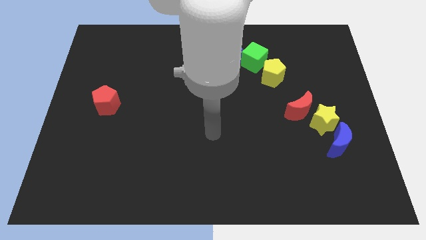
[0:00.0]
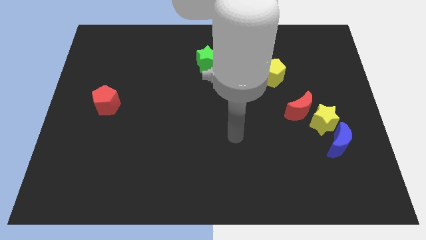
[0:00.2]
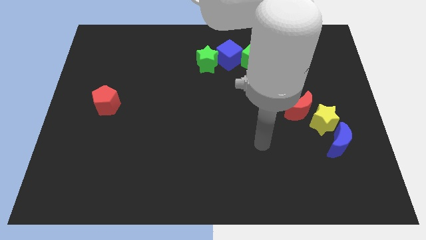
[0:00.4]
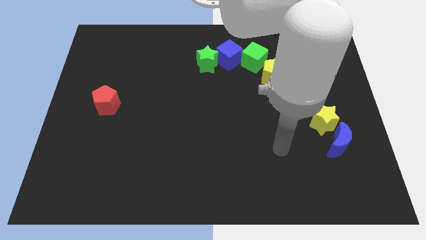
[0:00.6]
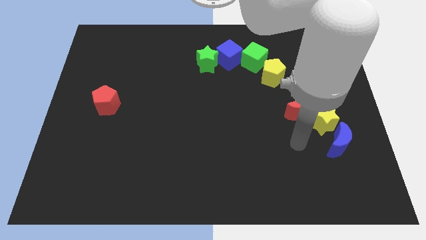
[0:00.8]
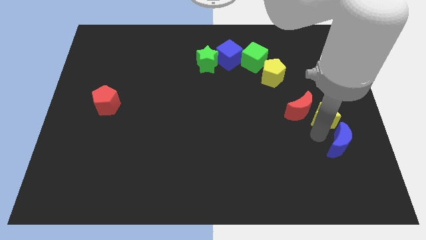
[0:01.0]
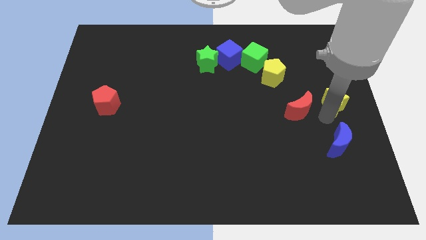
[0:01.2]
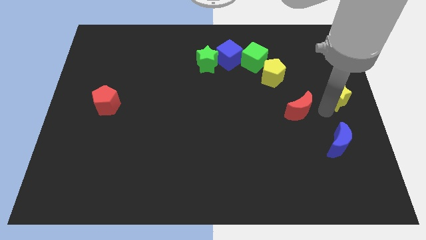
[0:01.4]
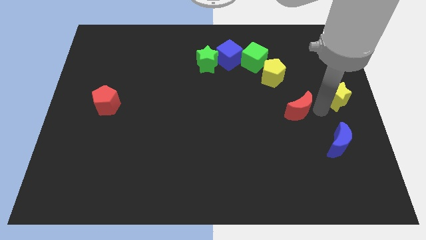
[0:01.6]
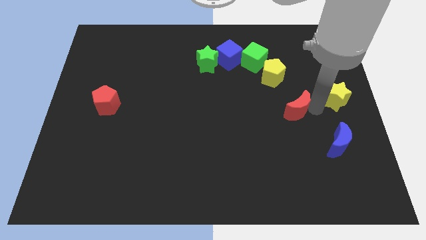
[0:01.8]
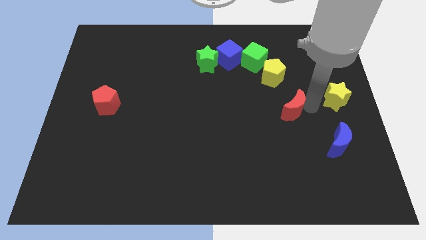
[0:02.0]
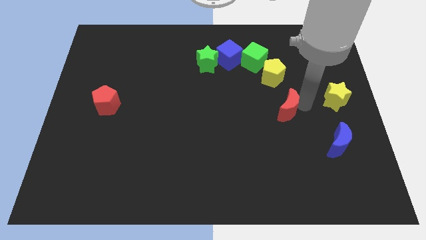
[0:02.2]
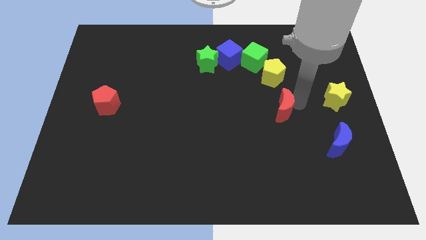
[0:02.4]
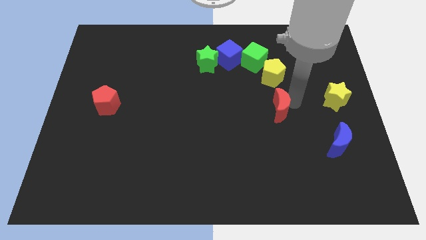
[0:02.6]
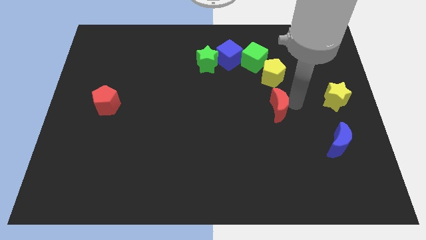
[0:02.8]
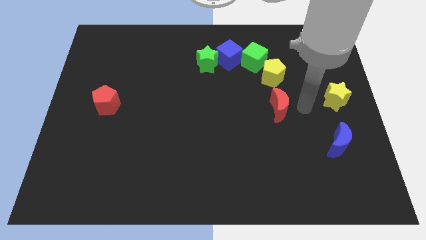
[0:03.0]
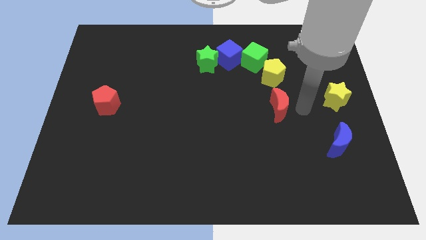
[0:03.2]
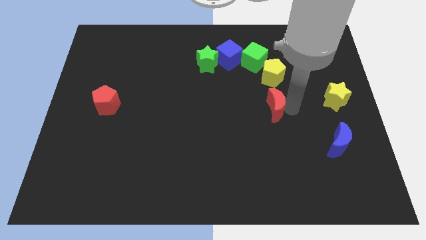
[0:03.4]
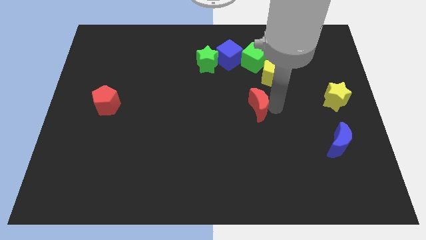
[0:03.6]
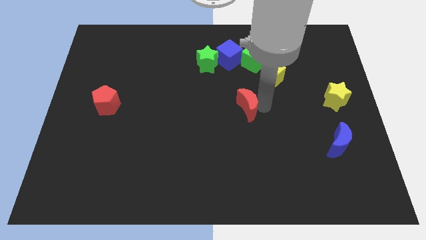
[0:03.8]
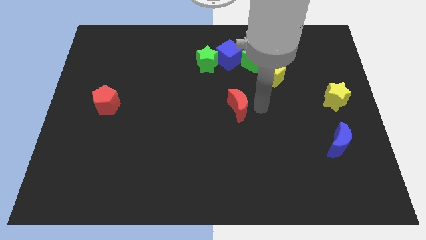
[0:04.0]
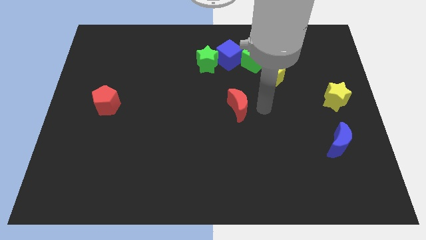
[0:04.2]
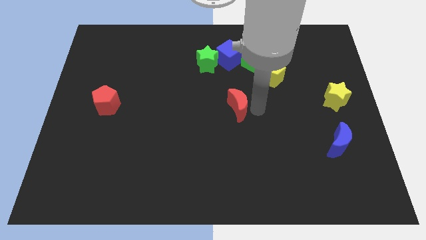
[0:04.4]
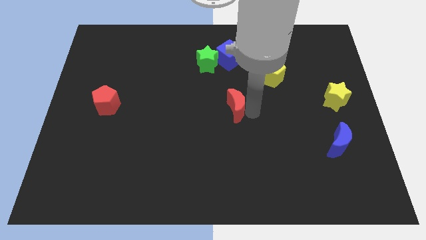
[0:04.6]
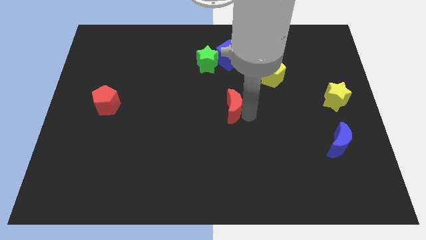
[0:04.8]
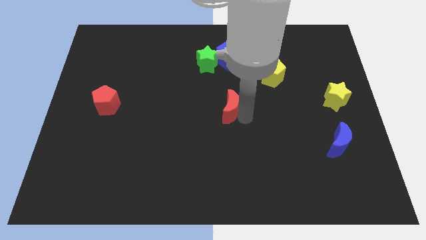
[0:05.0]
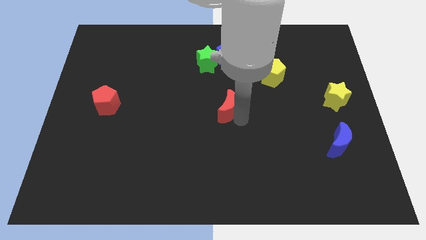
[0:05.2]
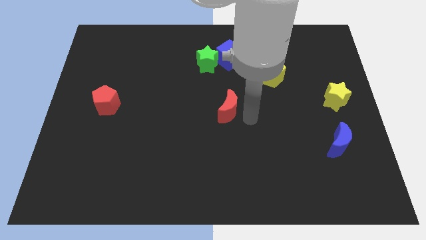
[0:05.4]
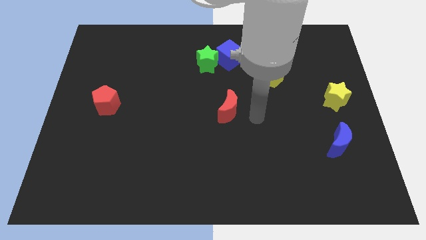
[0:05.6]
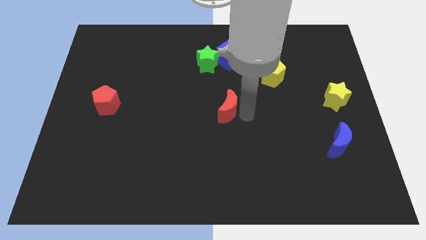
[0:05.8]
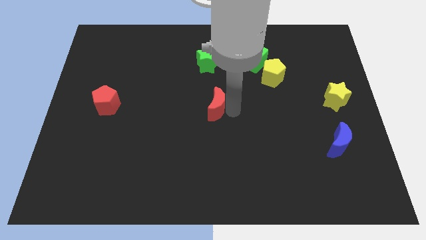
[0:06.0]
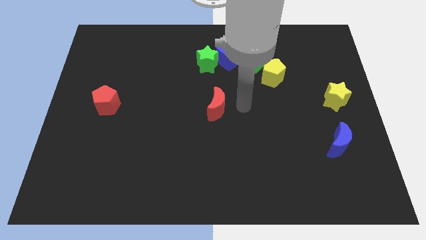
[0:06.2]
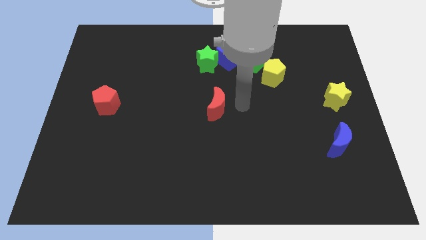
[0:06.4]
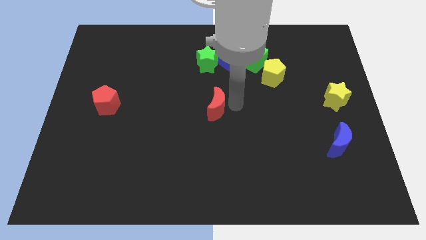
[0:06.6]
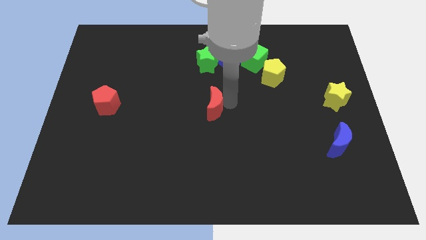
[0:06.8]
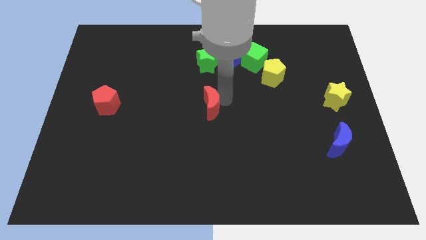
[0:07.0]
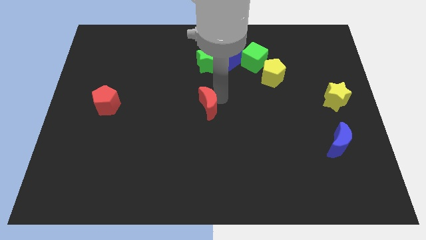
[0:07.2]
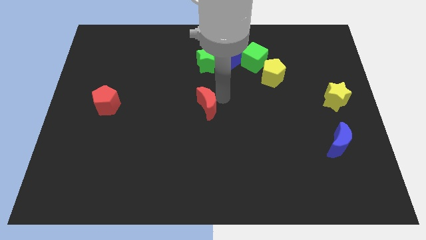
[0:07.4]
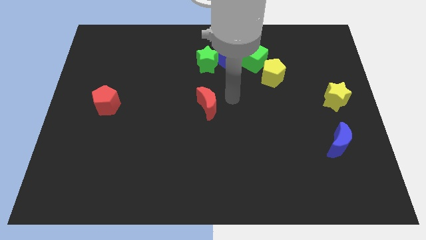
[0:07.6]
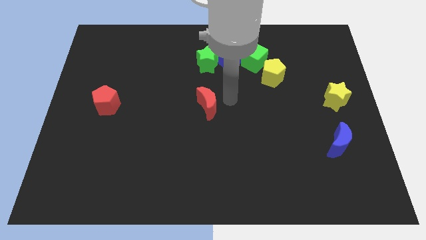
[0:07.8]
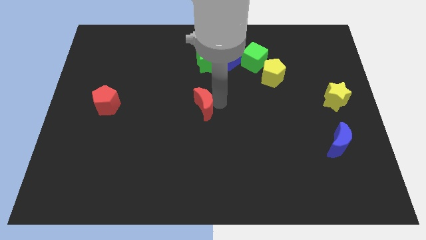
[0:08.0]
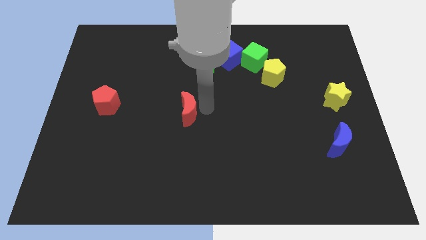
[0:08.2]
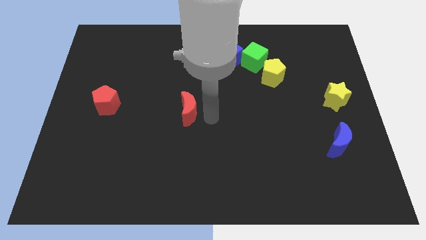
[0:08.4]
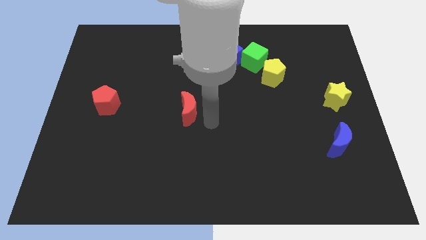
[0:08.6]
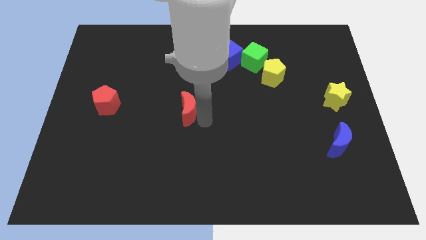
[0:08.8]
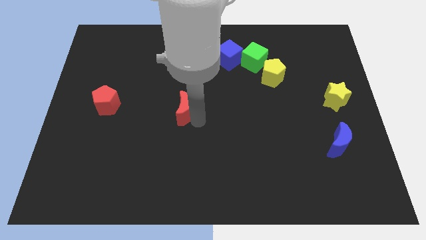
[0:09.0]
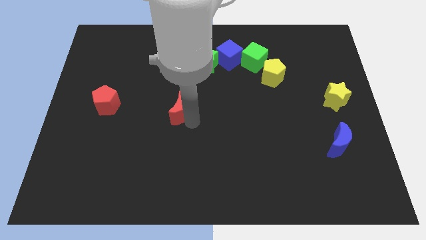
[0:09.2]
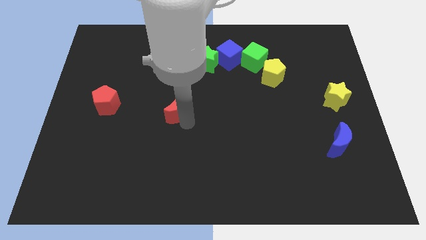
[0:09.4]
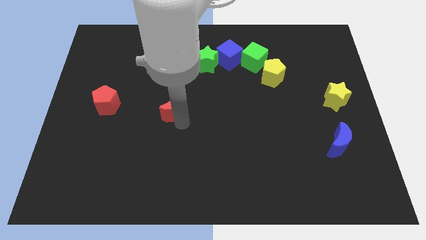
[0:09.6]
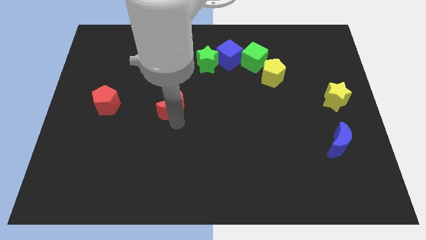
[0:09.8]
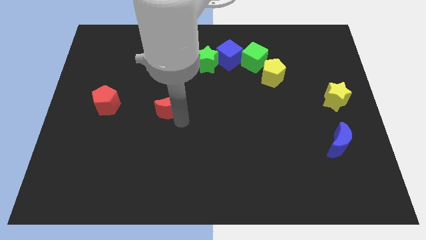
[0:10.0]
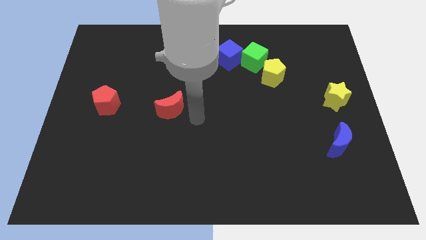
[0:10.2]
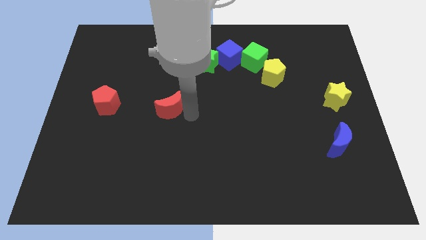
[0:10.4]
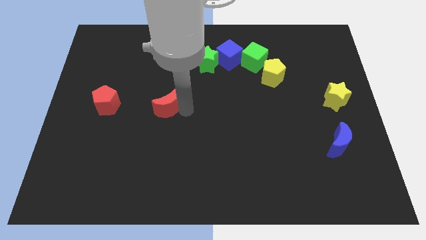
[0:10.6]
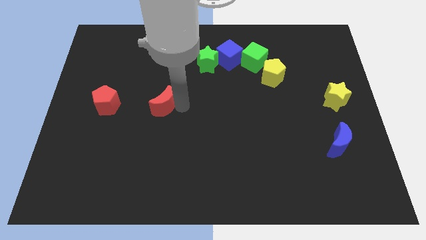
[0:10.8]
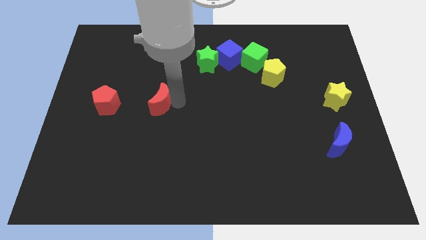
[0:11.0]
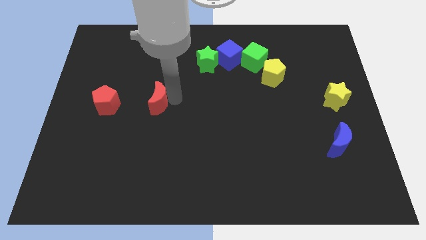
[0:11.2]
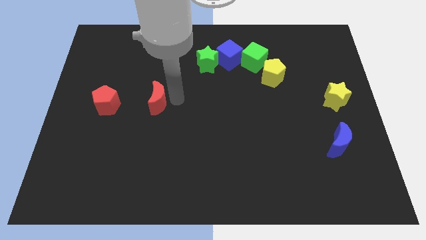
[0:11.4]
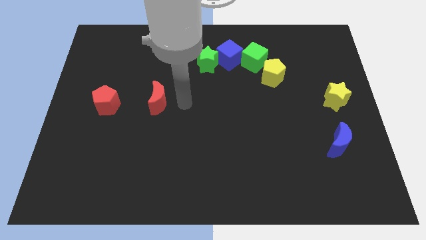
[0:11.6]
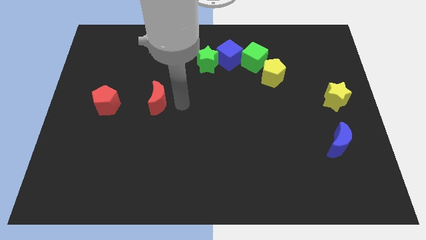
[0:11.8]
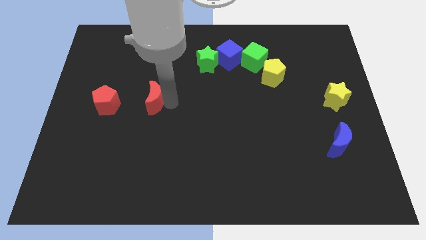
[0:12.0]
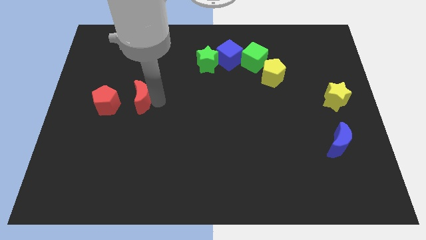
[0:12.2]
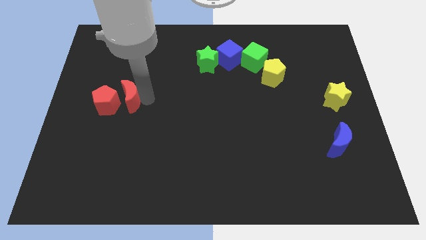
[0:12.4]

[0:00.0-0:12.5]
put the red moon next to the red pentagon

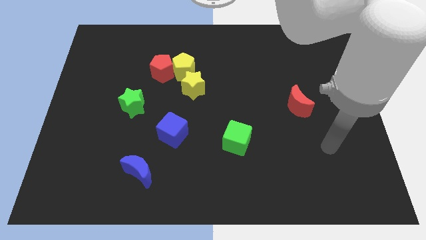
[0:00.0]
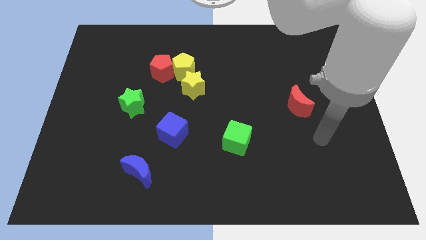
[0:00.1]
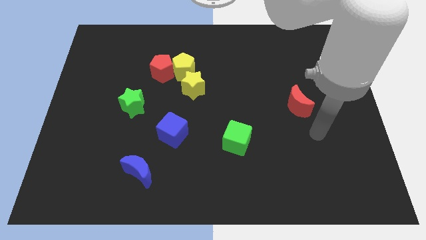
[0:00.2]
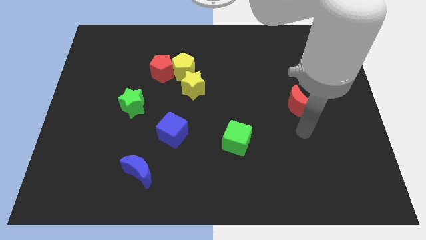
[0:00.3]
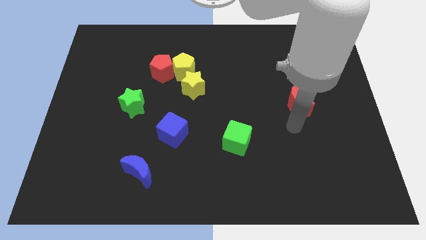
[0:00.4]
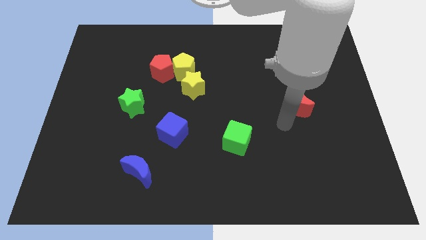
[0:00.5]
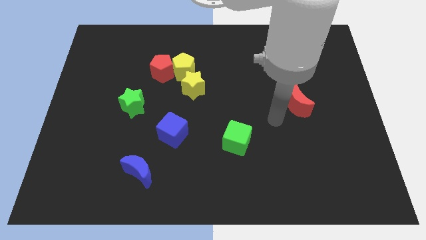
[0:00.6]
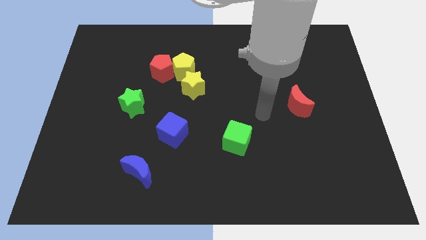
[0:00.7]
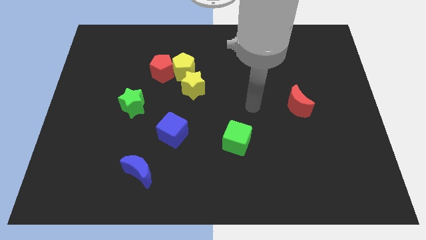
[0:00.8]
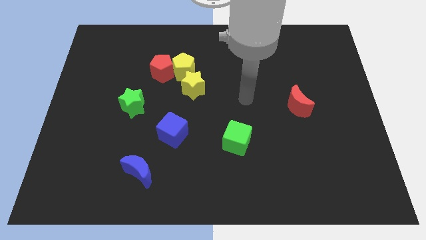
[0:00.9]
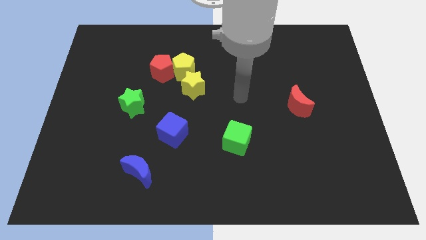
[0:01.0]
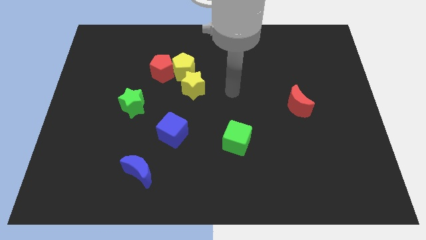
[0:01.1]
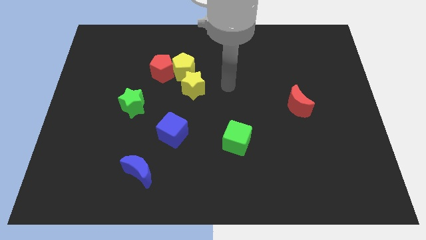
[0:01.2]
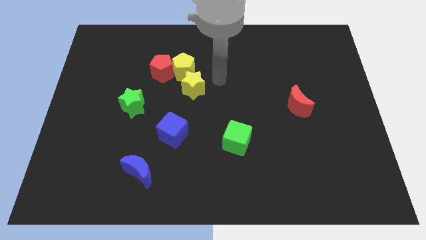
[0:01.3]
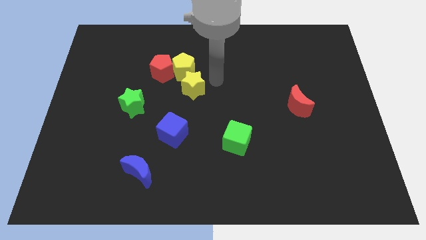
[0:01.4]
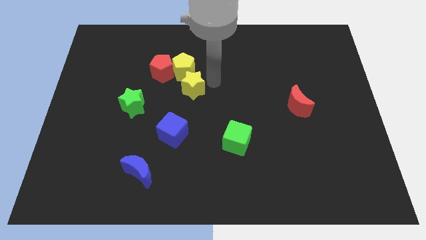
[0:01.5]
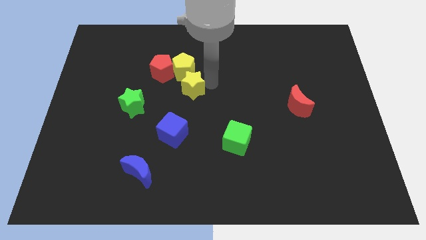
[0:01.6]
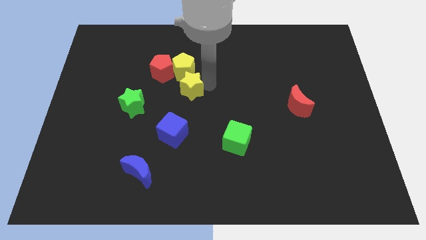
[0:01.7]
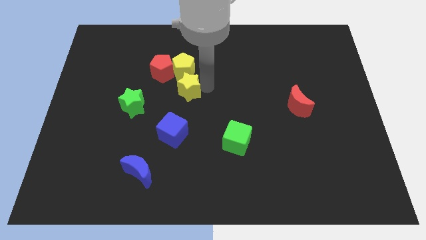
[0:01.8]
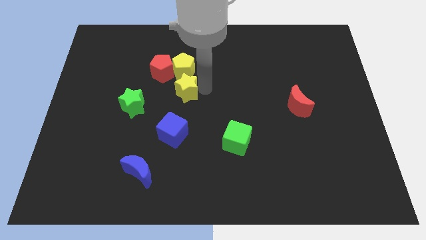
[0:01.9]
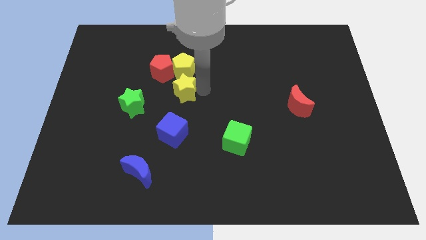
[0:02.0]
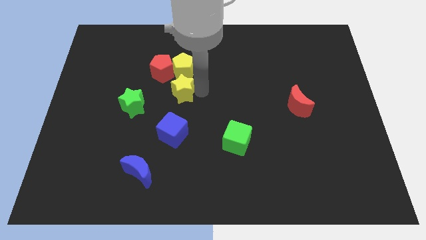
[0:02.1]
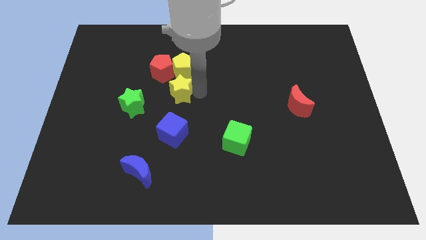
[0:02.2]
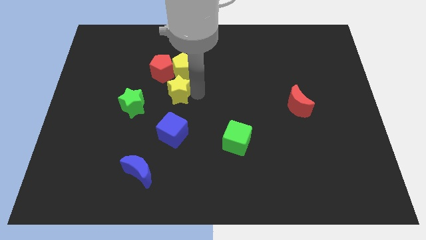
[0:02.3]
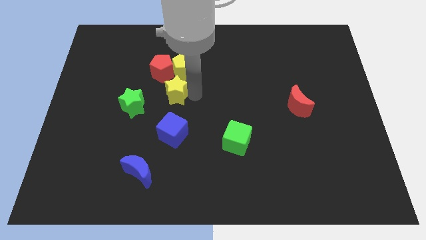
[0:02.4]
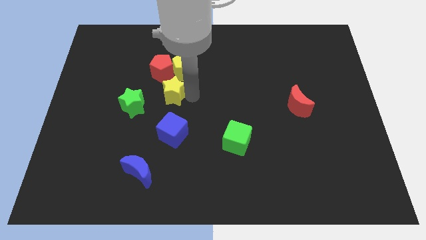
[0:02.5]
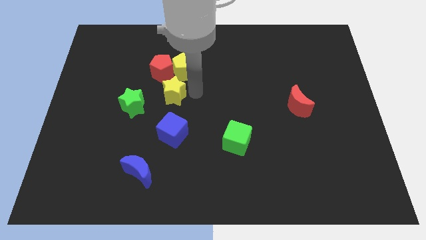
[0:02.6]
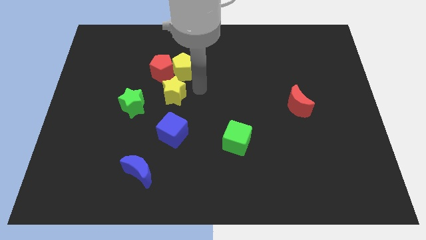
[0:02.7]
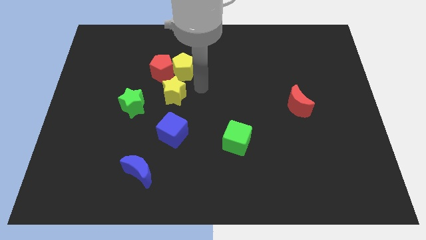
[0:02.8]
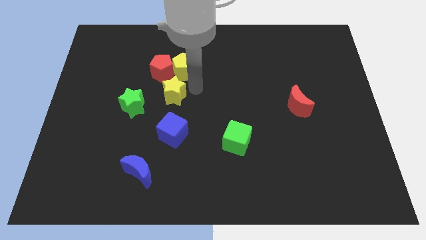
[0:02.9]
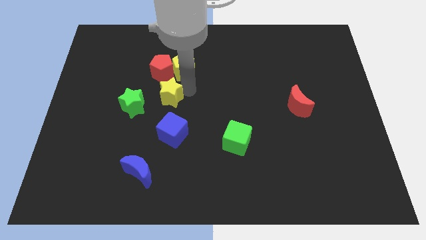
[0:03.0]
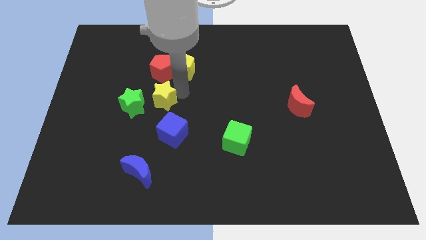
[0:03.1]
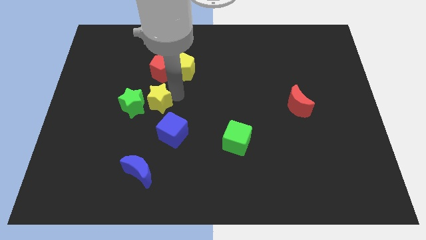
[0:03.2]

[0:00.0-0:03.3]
slide the yellow star to the green star
